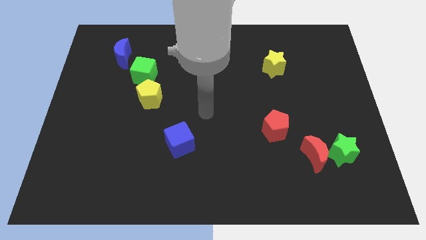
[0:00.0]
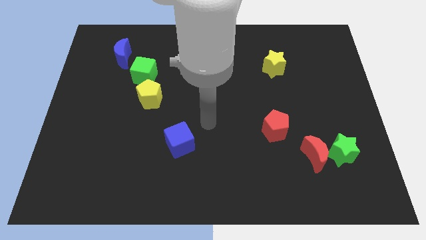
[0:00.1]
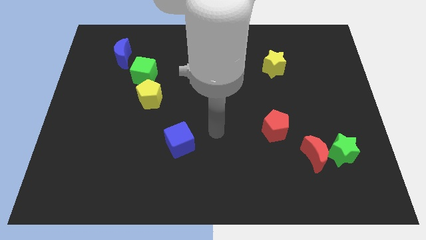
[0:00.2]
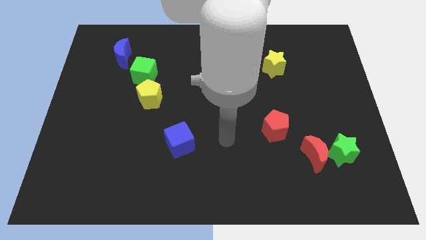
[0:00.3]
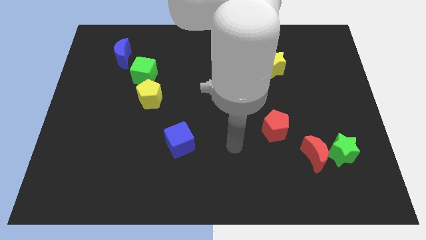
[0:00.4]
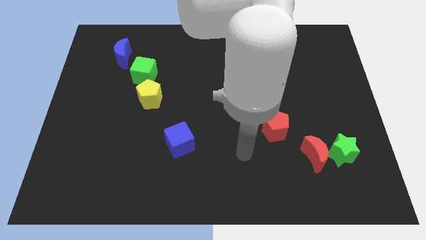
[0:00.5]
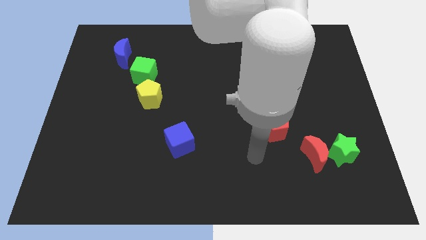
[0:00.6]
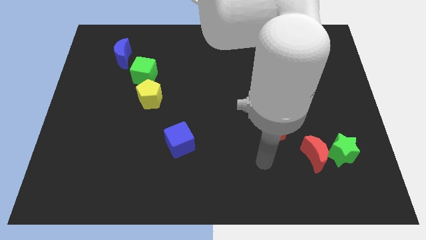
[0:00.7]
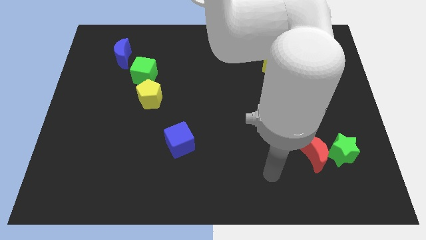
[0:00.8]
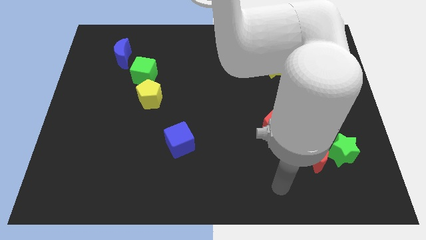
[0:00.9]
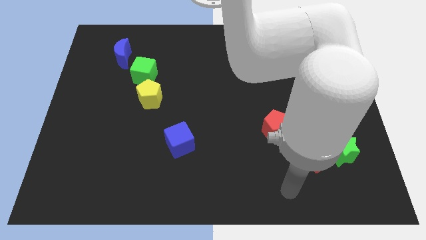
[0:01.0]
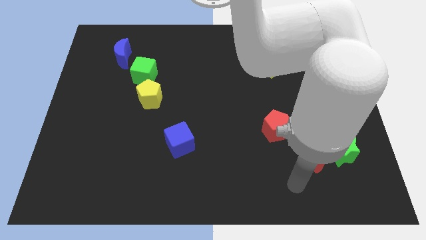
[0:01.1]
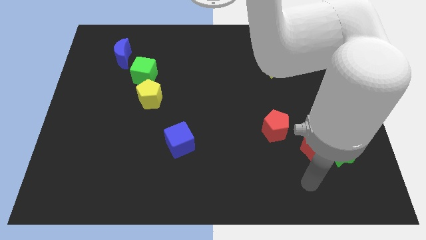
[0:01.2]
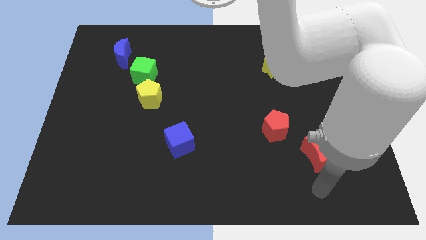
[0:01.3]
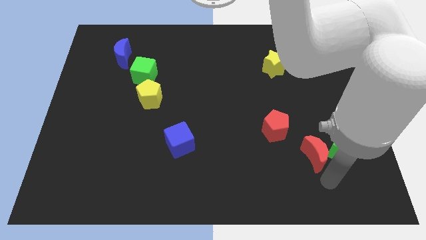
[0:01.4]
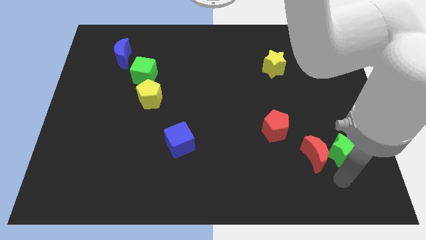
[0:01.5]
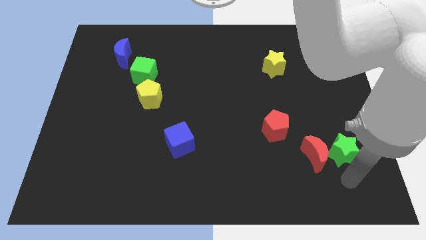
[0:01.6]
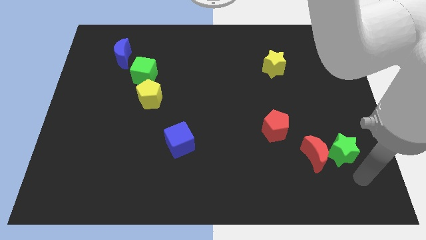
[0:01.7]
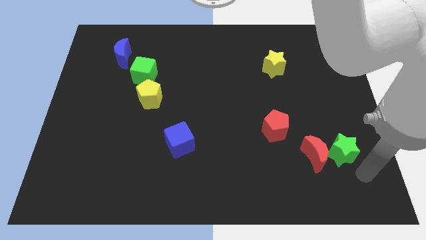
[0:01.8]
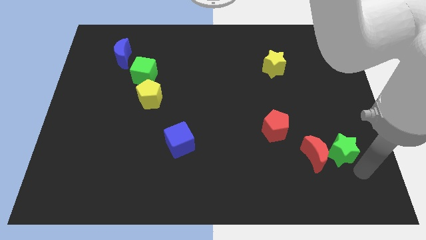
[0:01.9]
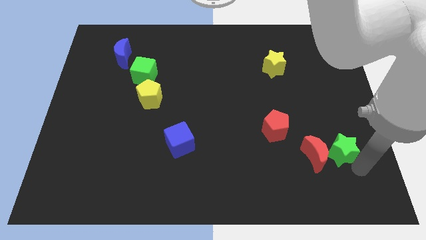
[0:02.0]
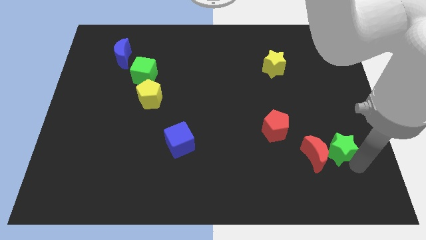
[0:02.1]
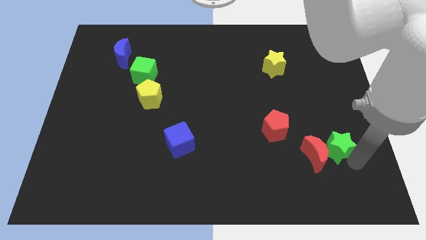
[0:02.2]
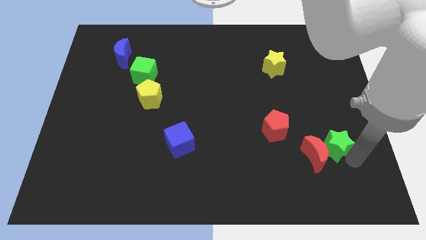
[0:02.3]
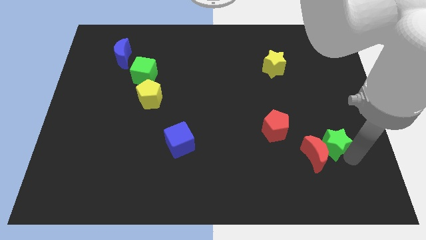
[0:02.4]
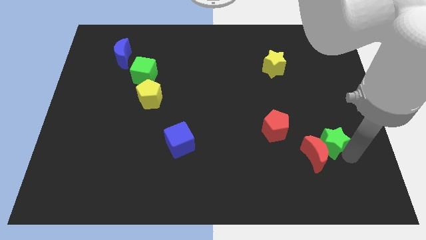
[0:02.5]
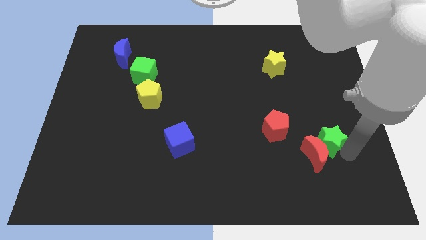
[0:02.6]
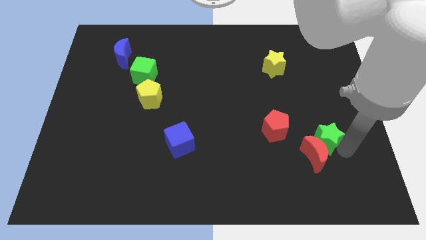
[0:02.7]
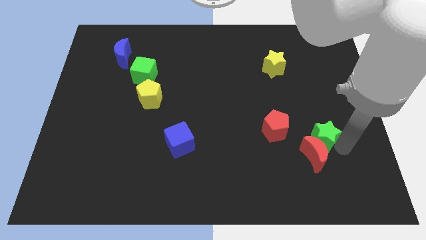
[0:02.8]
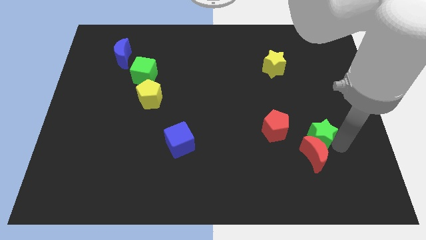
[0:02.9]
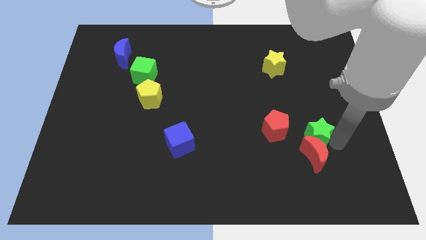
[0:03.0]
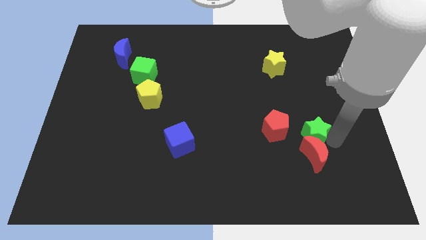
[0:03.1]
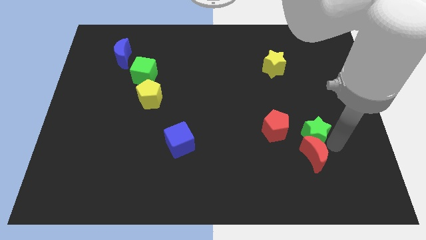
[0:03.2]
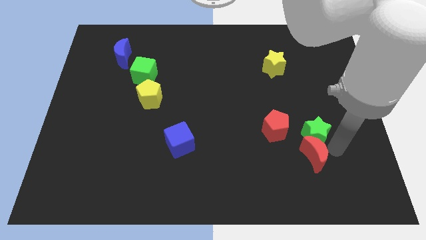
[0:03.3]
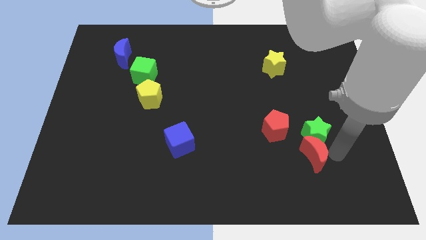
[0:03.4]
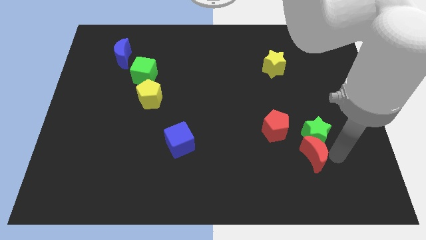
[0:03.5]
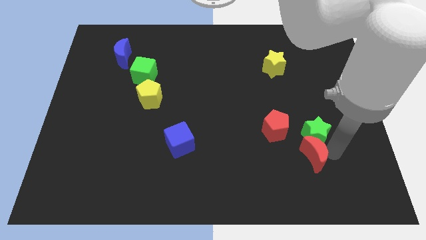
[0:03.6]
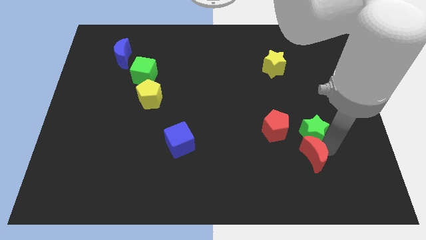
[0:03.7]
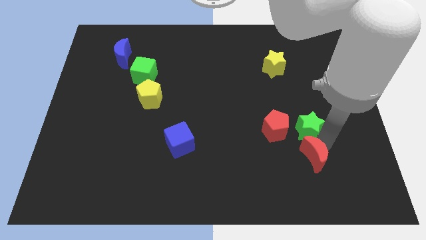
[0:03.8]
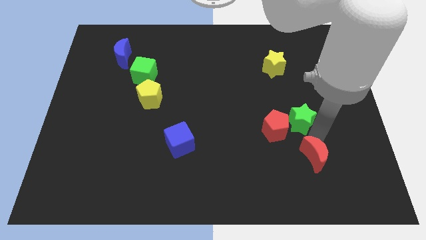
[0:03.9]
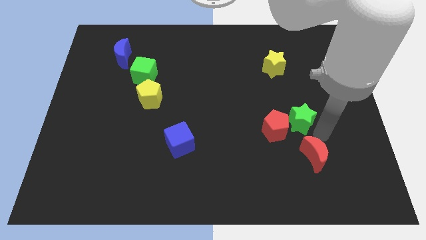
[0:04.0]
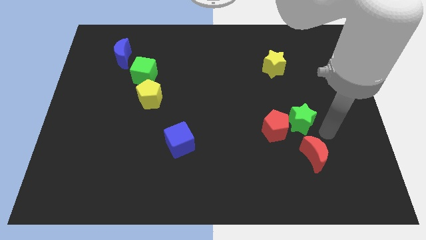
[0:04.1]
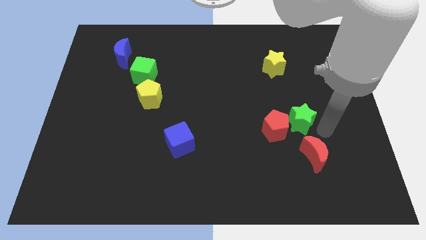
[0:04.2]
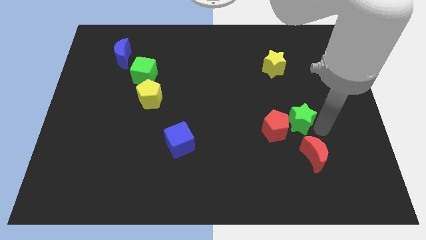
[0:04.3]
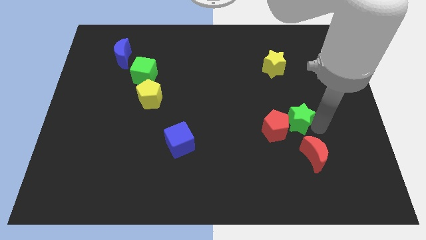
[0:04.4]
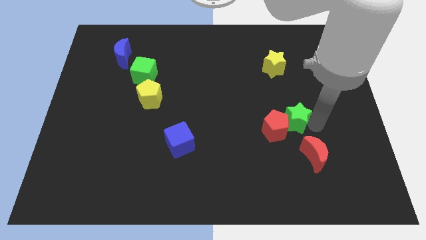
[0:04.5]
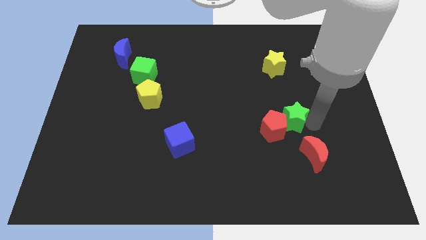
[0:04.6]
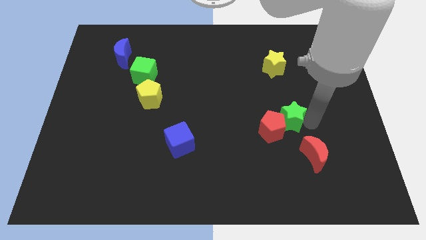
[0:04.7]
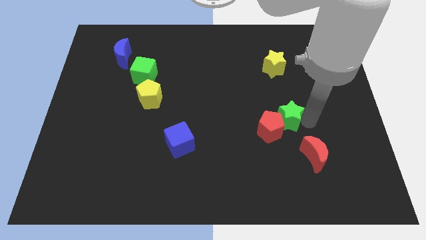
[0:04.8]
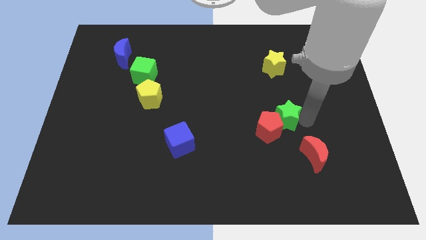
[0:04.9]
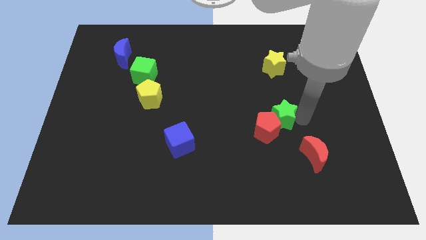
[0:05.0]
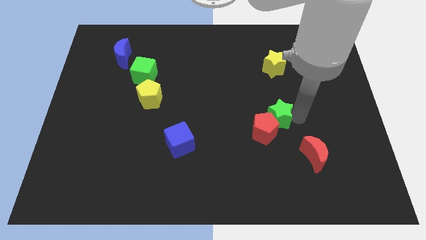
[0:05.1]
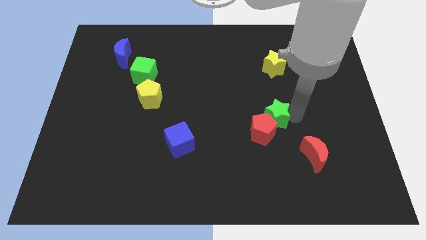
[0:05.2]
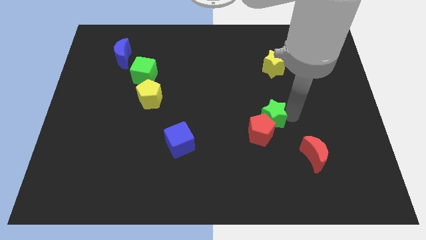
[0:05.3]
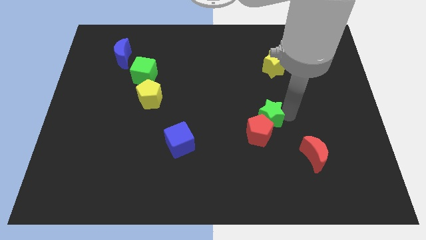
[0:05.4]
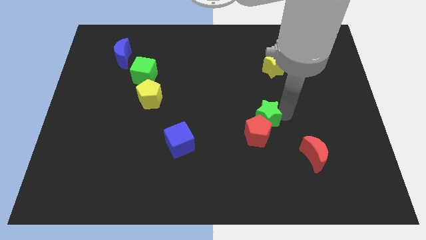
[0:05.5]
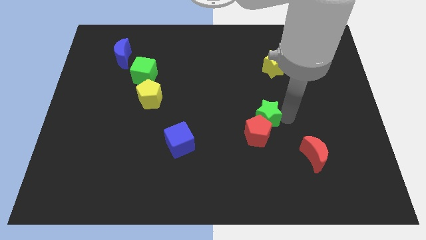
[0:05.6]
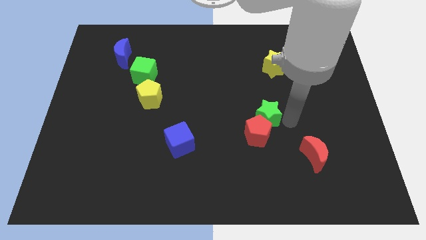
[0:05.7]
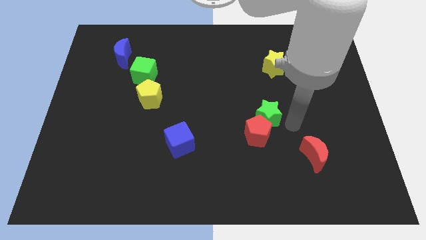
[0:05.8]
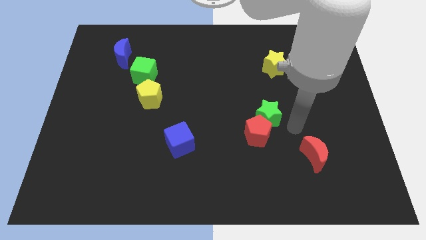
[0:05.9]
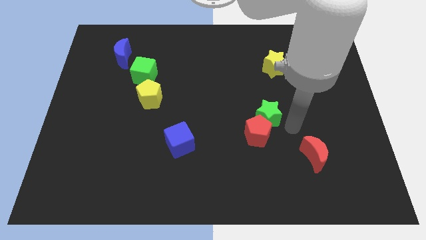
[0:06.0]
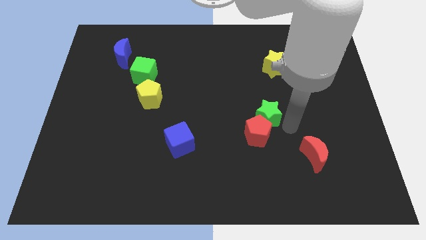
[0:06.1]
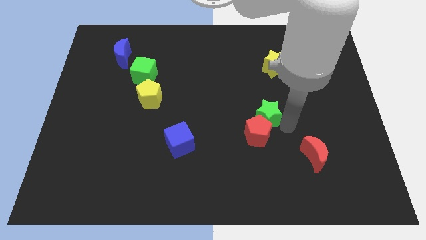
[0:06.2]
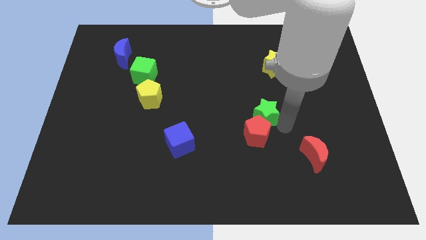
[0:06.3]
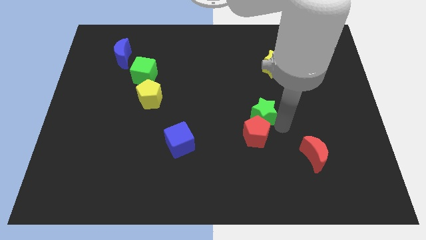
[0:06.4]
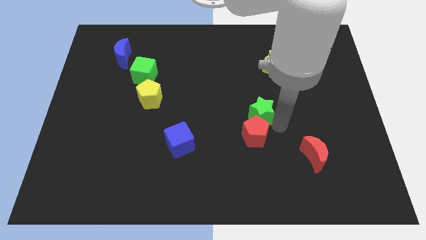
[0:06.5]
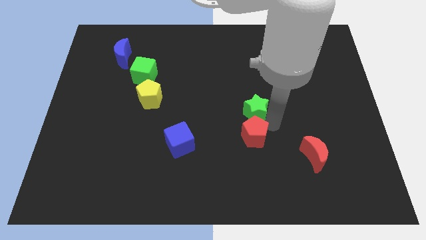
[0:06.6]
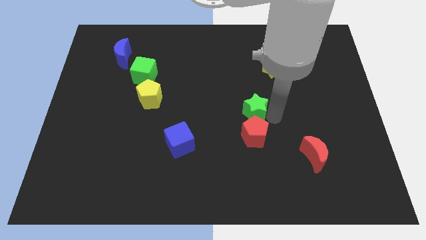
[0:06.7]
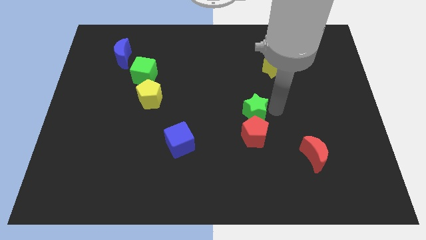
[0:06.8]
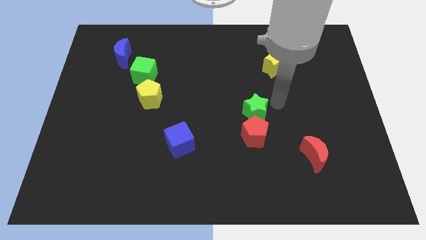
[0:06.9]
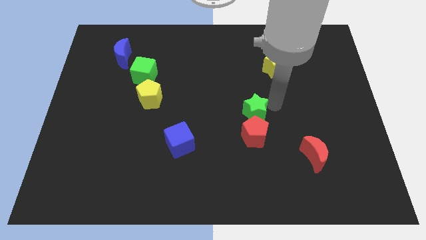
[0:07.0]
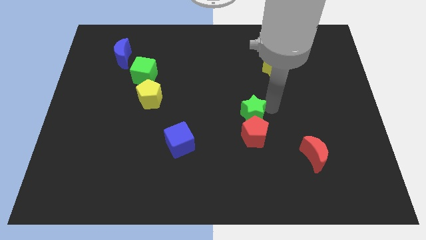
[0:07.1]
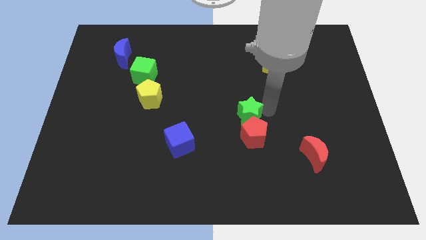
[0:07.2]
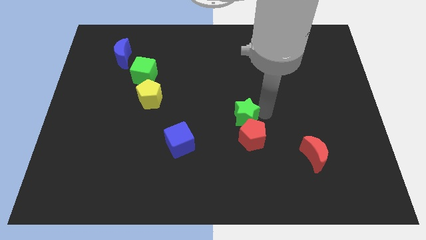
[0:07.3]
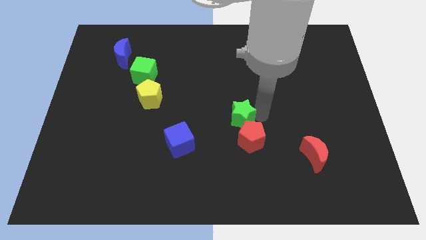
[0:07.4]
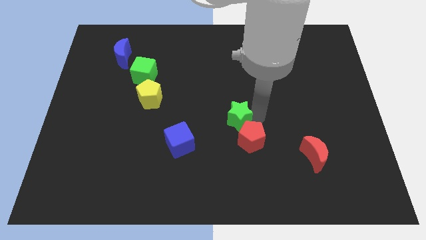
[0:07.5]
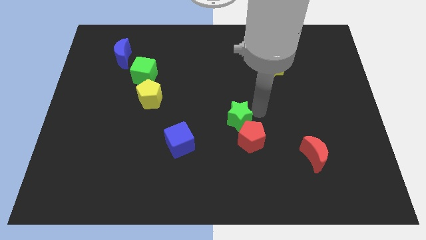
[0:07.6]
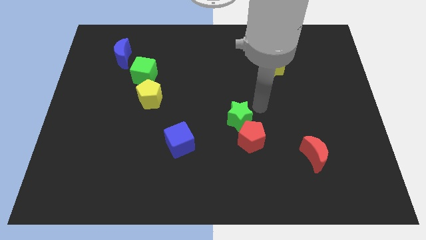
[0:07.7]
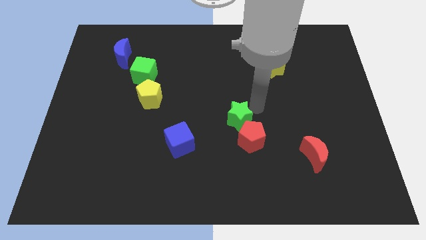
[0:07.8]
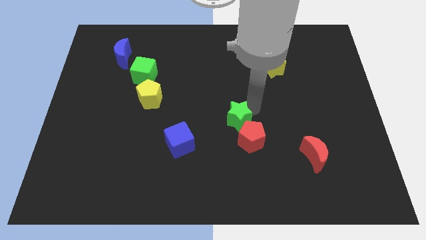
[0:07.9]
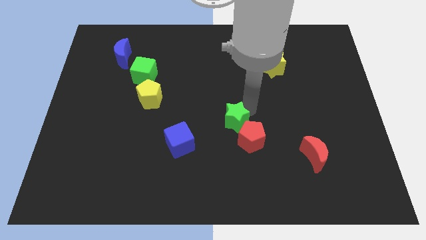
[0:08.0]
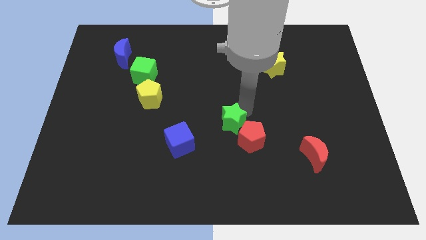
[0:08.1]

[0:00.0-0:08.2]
slide the green star to the left of the red pentagon
